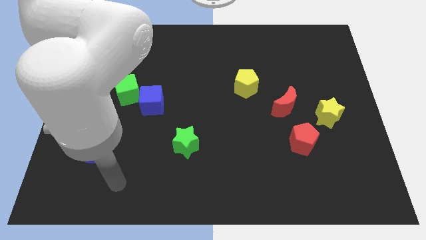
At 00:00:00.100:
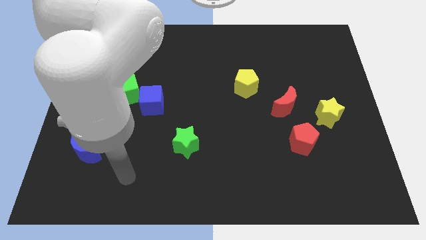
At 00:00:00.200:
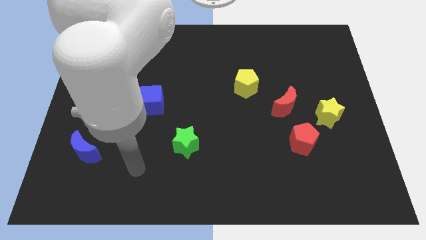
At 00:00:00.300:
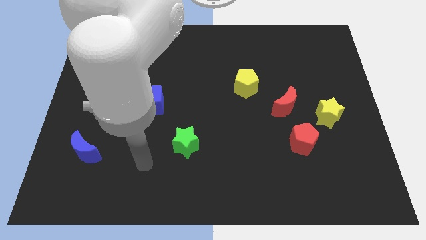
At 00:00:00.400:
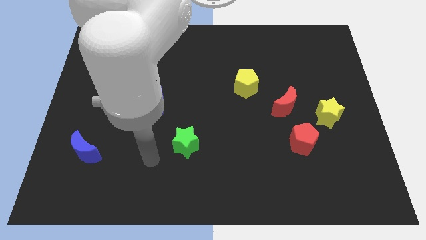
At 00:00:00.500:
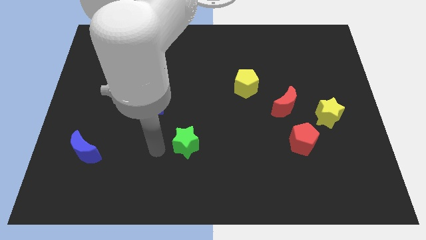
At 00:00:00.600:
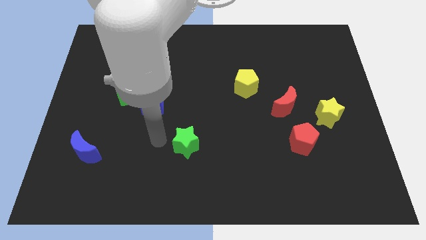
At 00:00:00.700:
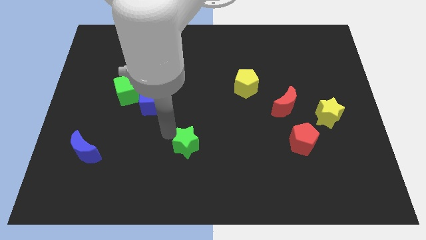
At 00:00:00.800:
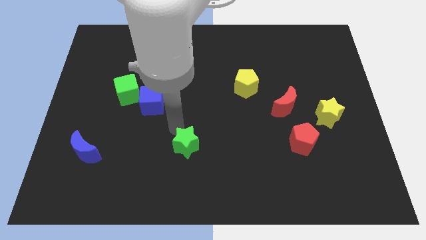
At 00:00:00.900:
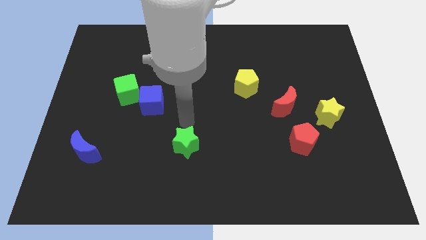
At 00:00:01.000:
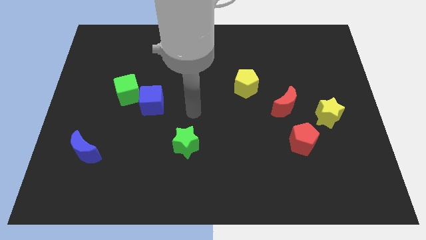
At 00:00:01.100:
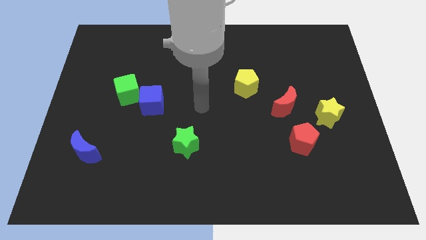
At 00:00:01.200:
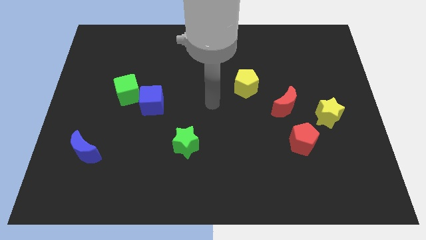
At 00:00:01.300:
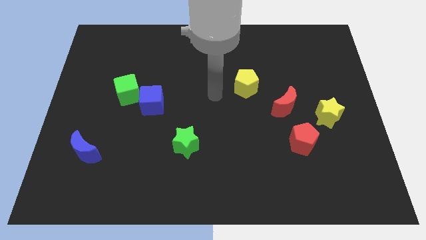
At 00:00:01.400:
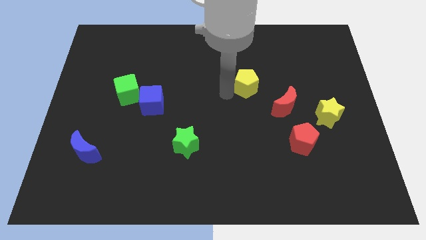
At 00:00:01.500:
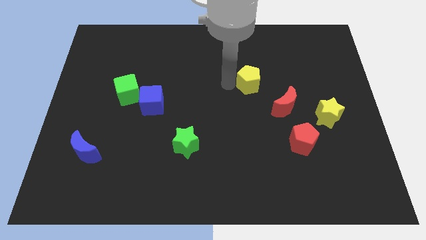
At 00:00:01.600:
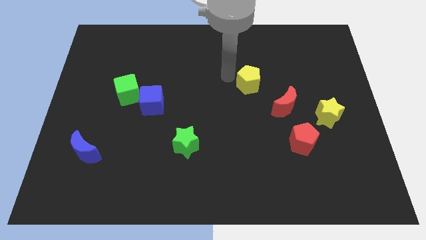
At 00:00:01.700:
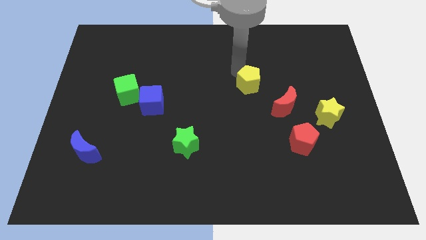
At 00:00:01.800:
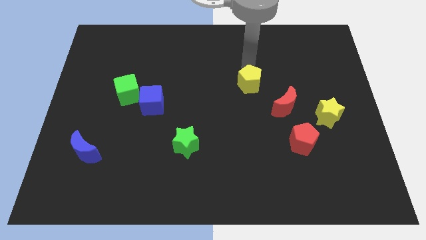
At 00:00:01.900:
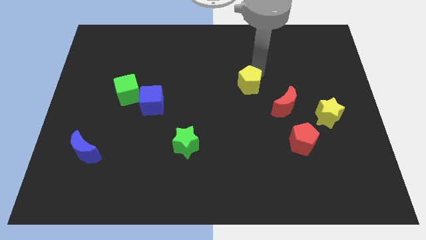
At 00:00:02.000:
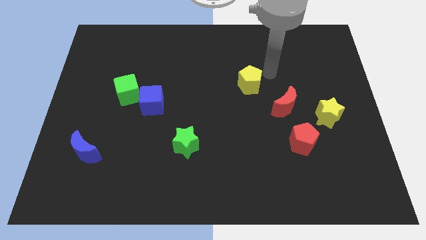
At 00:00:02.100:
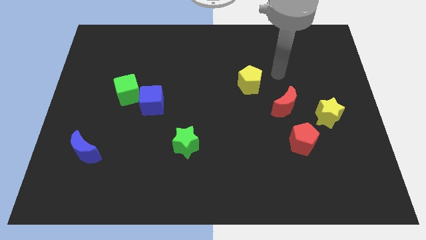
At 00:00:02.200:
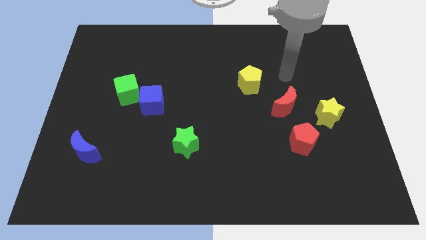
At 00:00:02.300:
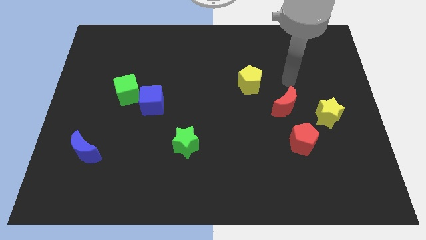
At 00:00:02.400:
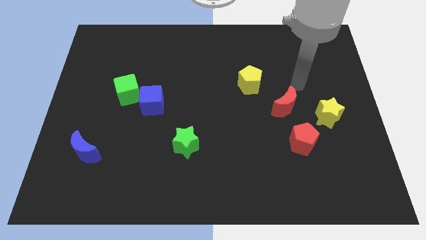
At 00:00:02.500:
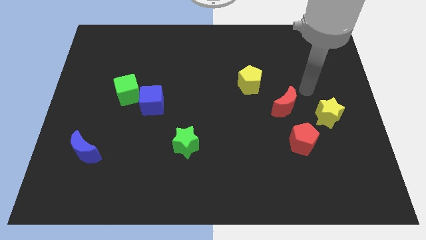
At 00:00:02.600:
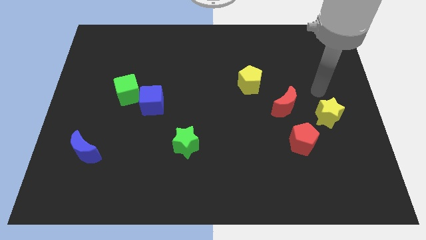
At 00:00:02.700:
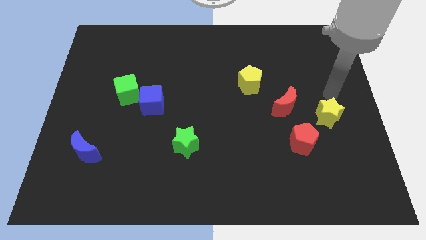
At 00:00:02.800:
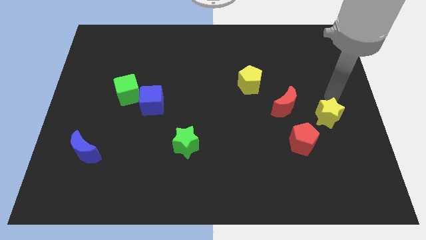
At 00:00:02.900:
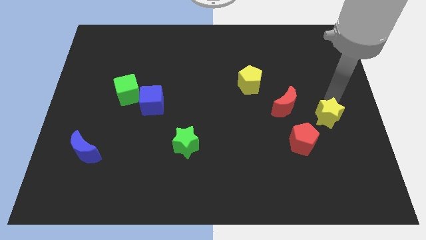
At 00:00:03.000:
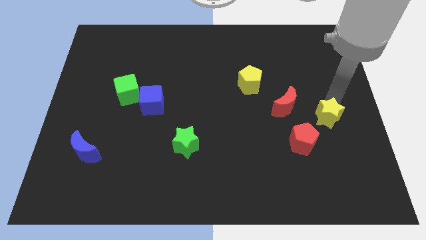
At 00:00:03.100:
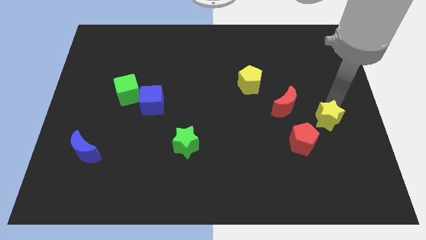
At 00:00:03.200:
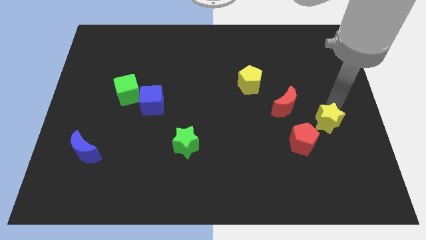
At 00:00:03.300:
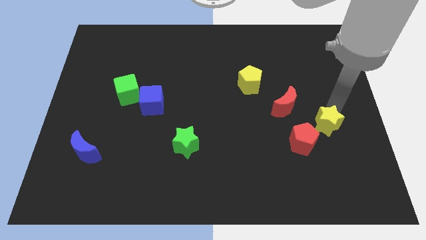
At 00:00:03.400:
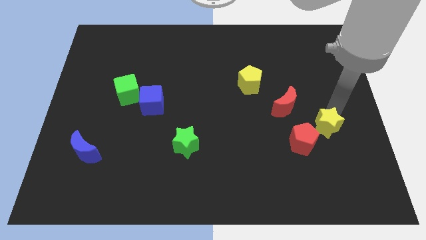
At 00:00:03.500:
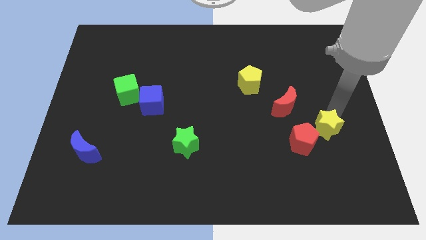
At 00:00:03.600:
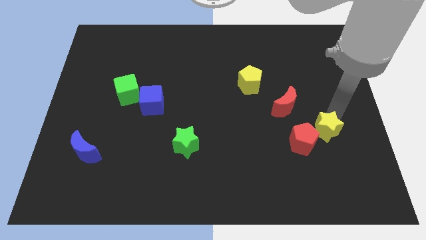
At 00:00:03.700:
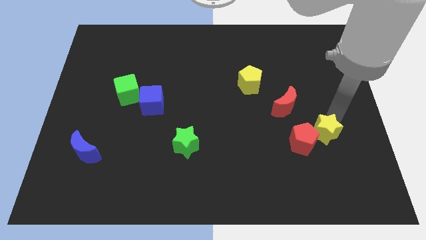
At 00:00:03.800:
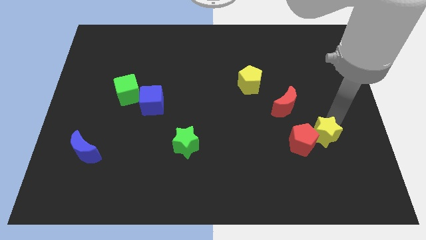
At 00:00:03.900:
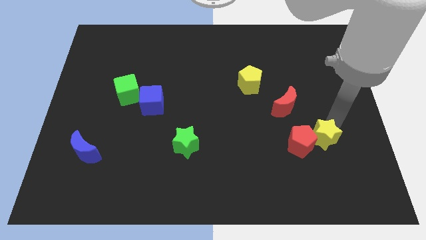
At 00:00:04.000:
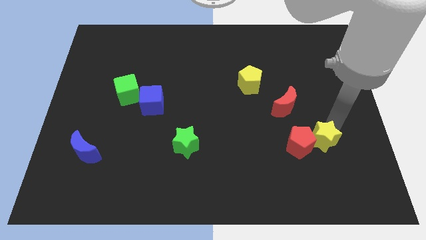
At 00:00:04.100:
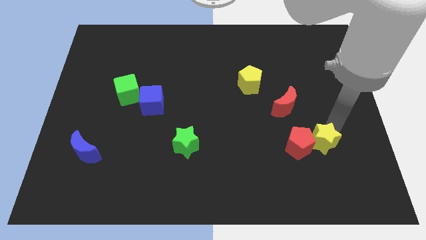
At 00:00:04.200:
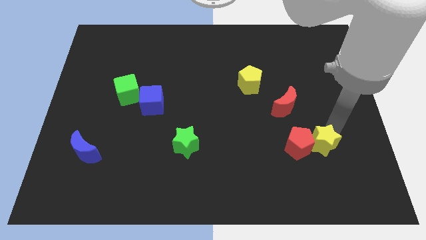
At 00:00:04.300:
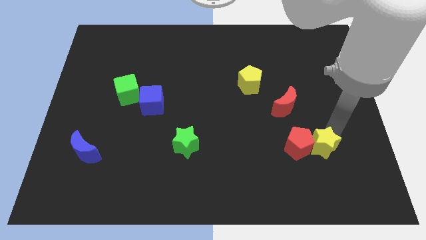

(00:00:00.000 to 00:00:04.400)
move the yellow star downwards and then left somewhat

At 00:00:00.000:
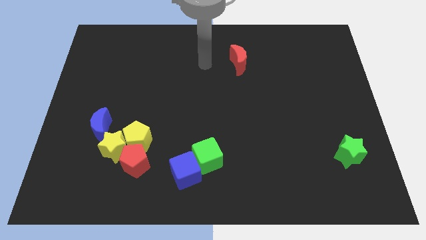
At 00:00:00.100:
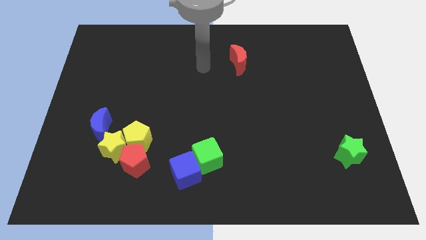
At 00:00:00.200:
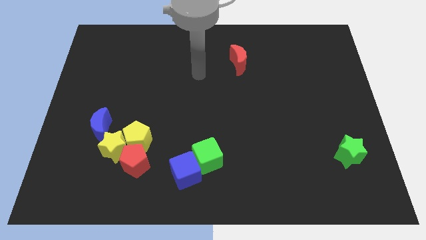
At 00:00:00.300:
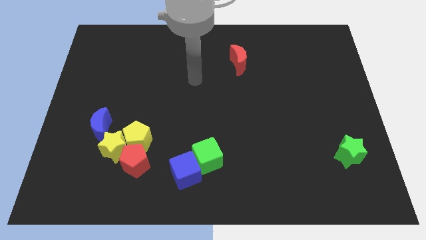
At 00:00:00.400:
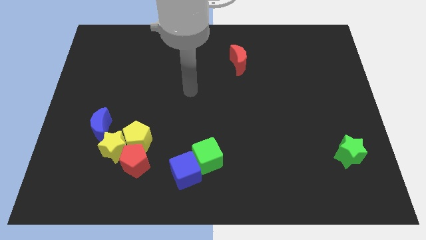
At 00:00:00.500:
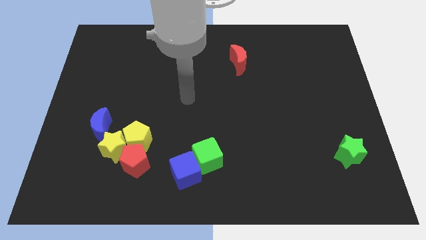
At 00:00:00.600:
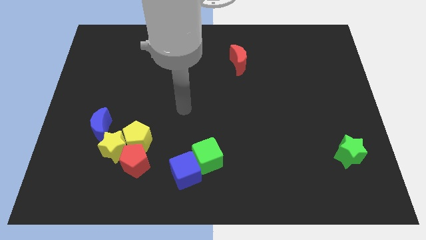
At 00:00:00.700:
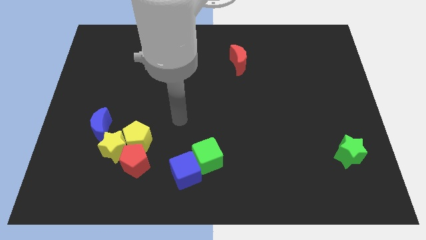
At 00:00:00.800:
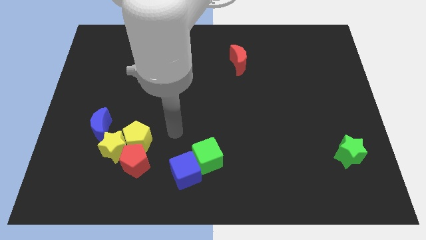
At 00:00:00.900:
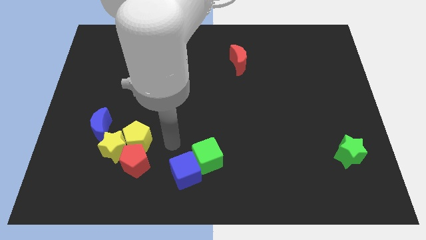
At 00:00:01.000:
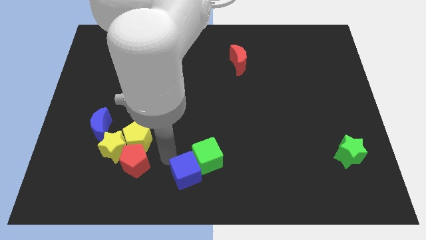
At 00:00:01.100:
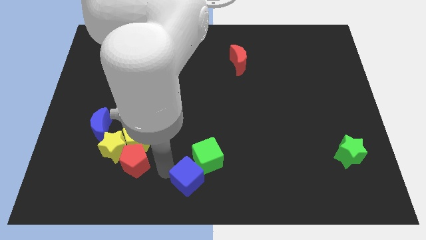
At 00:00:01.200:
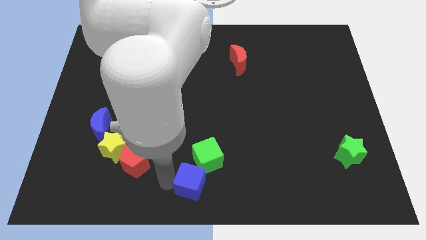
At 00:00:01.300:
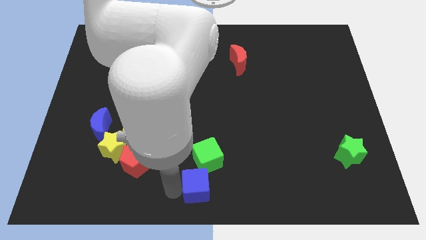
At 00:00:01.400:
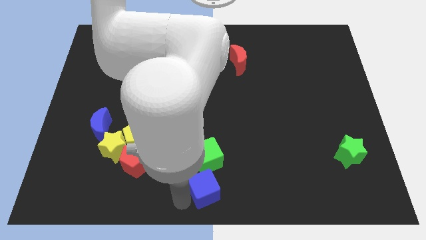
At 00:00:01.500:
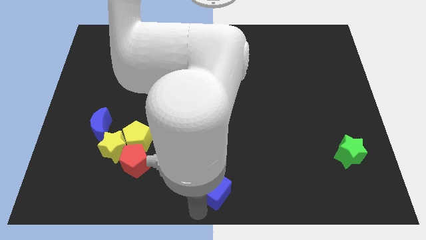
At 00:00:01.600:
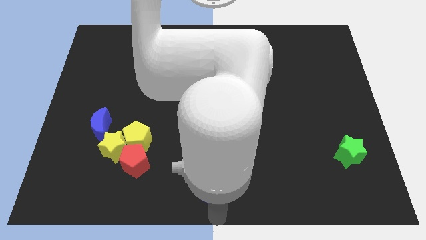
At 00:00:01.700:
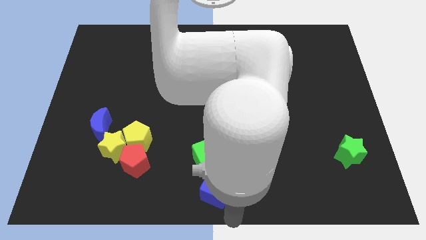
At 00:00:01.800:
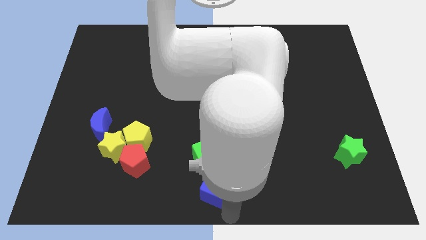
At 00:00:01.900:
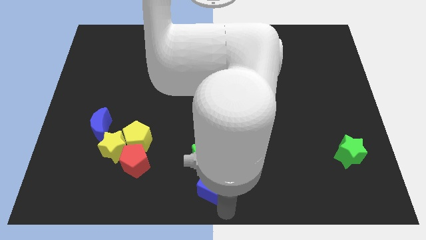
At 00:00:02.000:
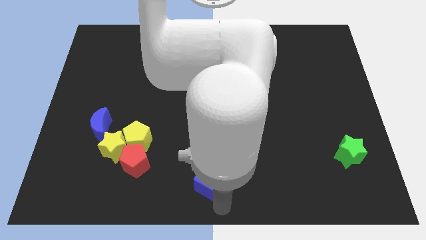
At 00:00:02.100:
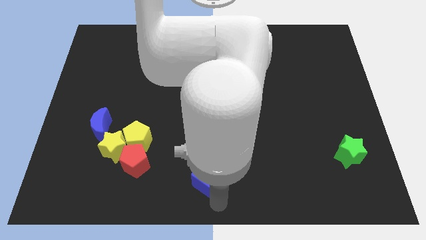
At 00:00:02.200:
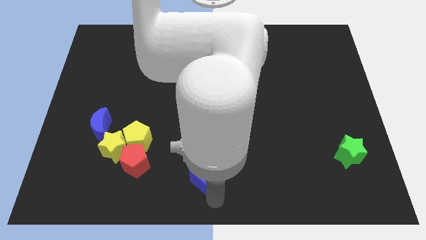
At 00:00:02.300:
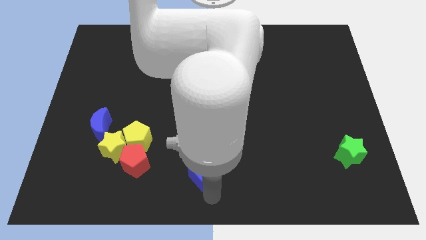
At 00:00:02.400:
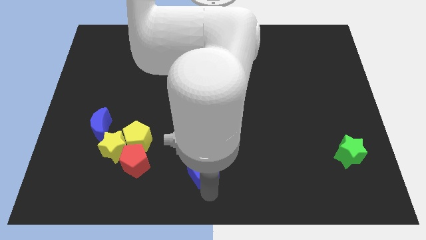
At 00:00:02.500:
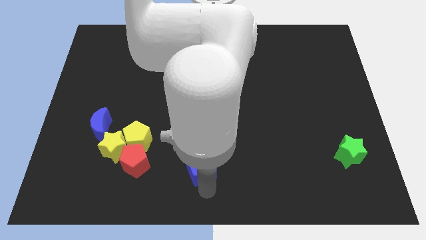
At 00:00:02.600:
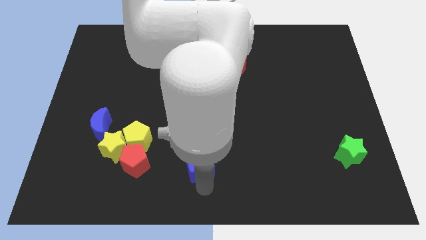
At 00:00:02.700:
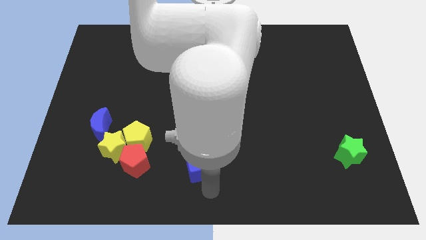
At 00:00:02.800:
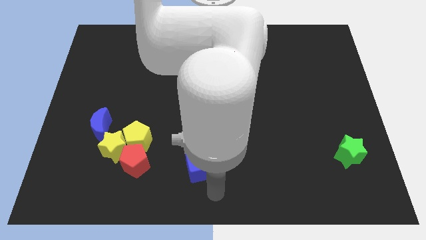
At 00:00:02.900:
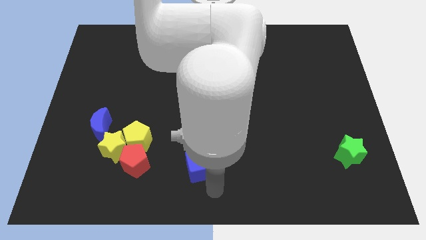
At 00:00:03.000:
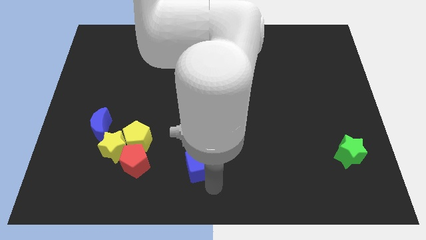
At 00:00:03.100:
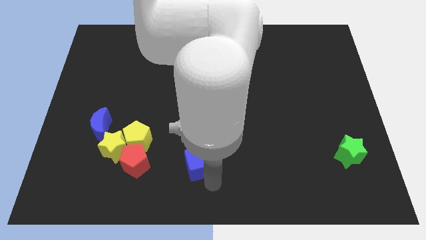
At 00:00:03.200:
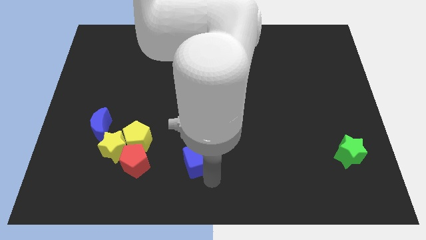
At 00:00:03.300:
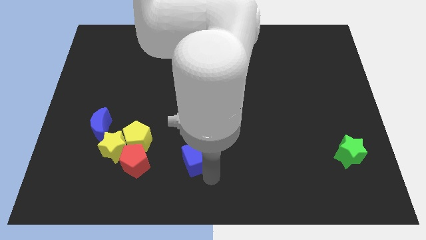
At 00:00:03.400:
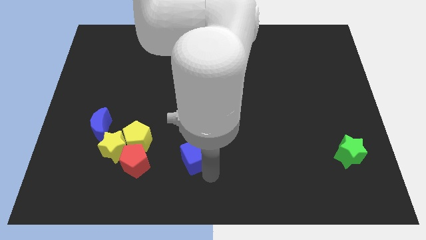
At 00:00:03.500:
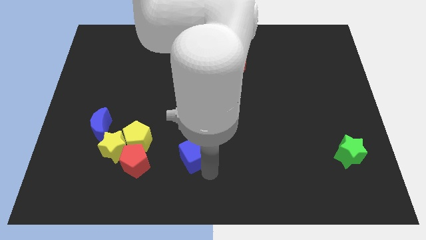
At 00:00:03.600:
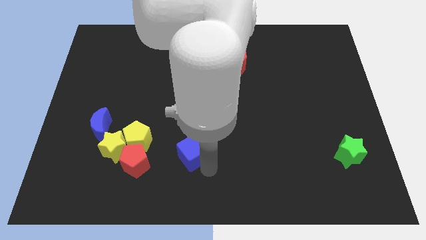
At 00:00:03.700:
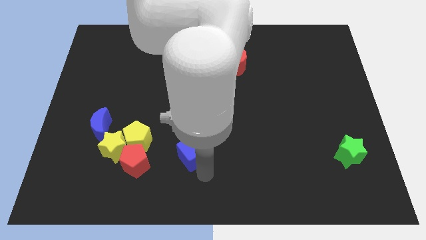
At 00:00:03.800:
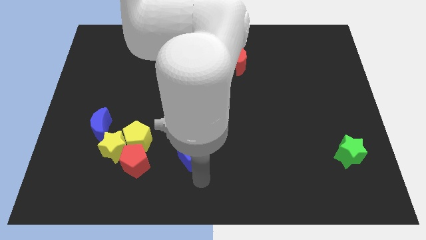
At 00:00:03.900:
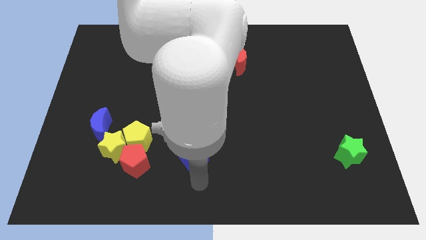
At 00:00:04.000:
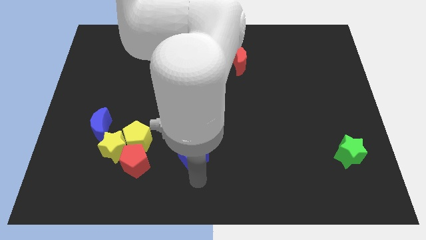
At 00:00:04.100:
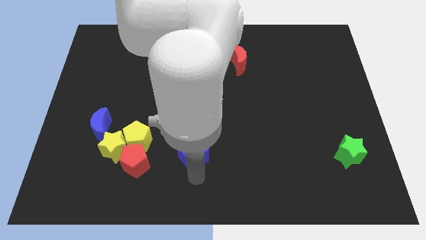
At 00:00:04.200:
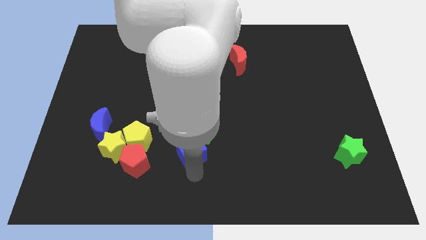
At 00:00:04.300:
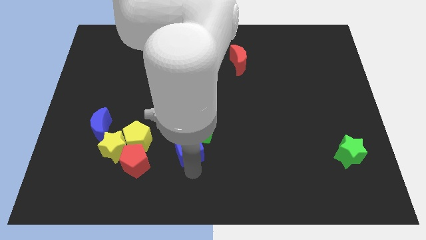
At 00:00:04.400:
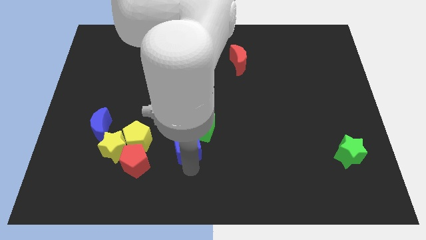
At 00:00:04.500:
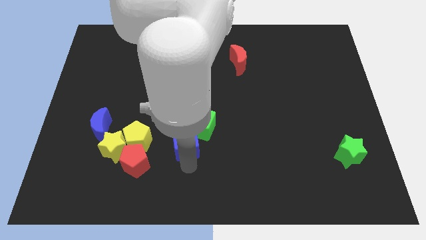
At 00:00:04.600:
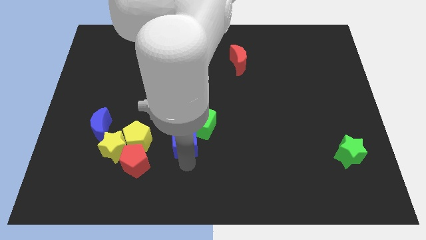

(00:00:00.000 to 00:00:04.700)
move the blue cube a bit upwards
